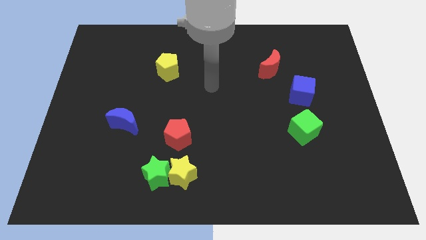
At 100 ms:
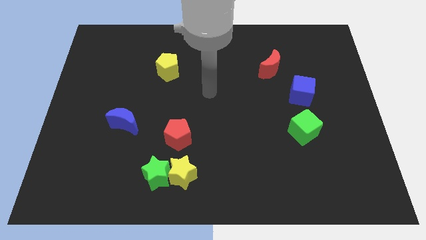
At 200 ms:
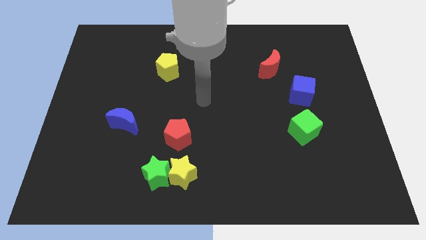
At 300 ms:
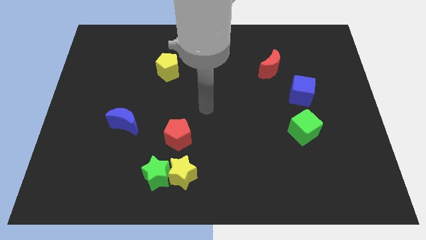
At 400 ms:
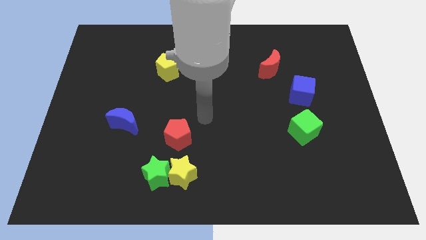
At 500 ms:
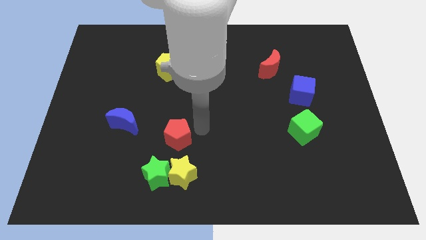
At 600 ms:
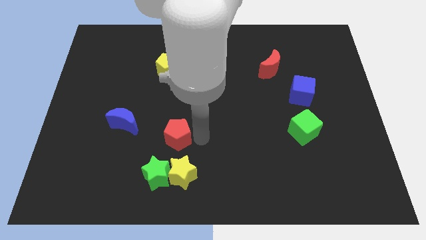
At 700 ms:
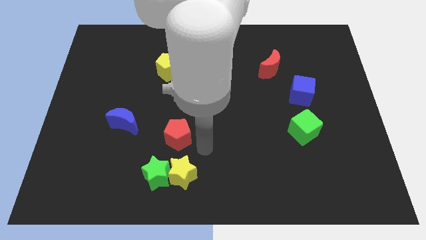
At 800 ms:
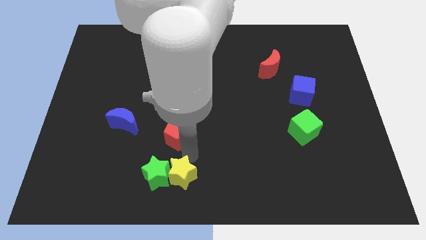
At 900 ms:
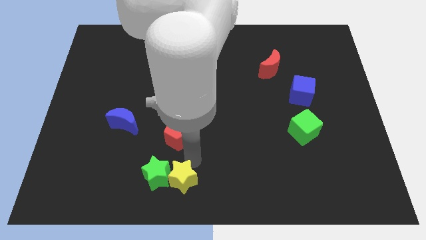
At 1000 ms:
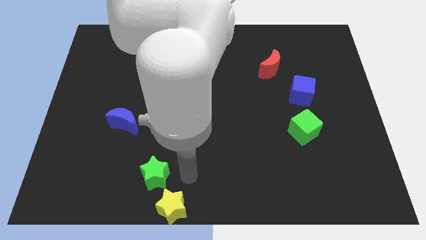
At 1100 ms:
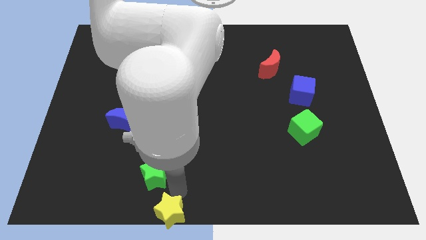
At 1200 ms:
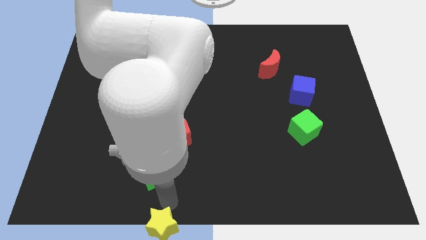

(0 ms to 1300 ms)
separate the green star from the yellow star

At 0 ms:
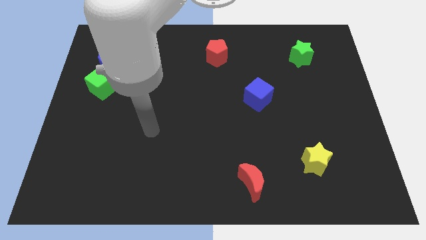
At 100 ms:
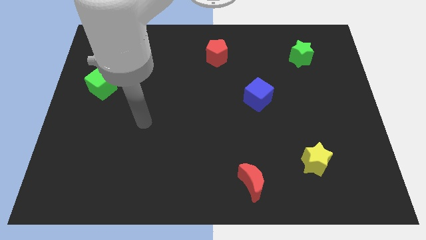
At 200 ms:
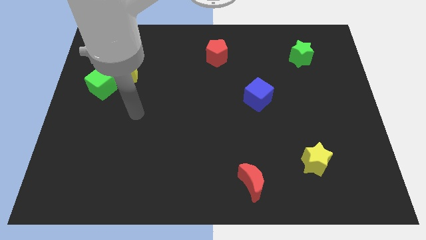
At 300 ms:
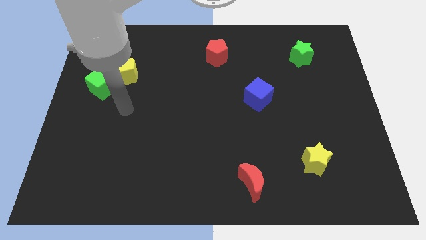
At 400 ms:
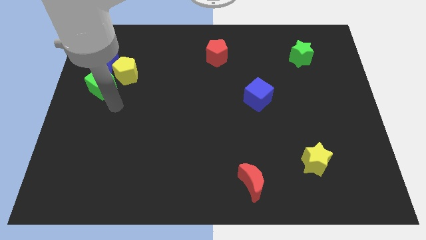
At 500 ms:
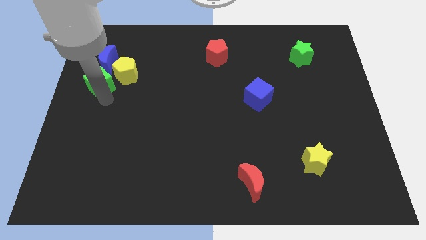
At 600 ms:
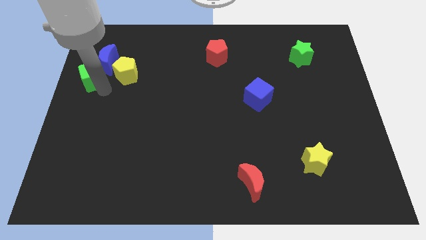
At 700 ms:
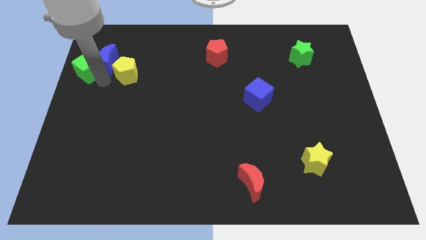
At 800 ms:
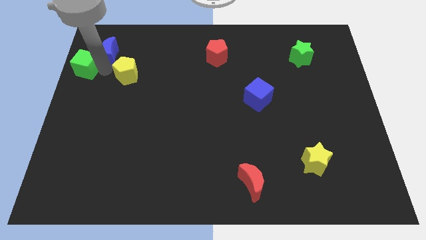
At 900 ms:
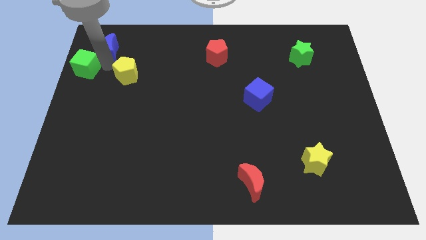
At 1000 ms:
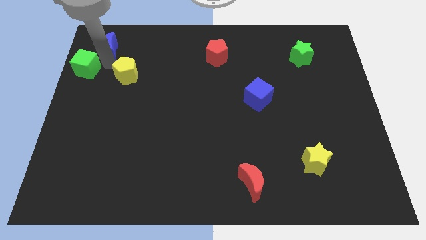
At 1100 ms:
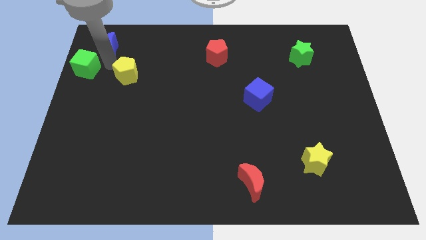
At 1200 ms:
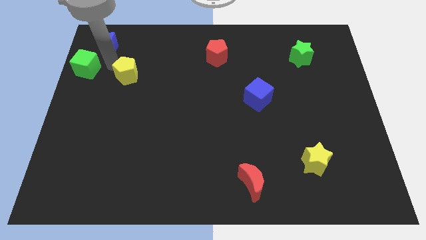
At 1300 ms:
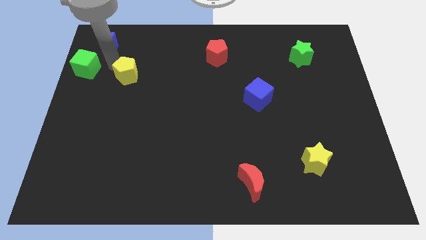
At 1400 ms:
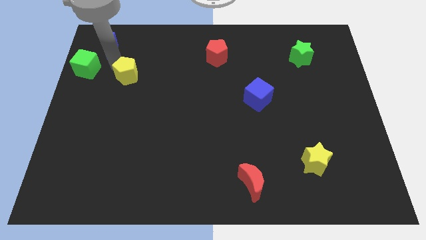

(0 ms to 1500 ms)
separate the yellow pentagon from the blue moon and green cube

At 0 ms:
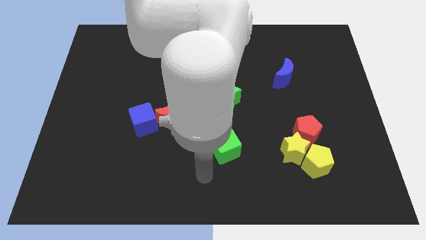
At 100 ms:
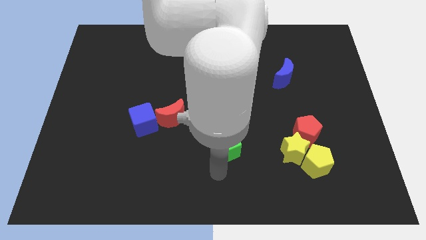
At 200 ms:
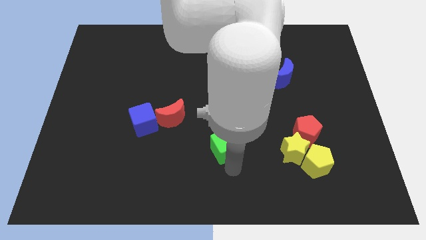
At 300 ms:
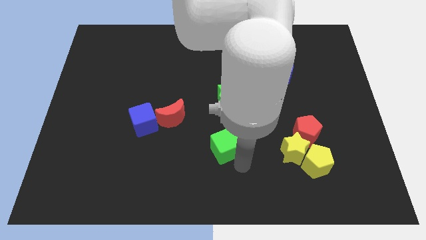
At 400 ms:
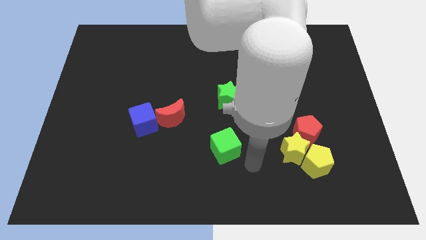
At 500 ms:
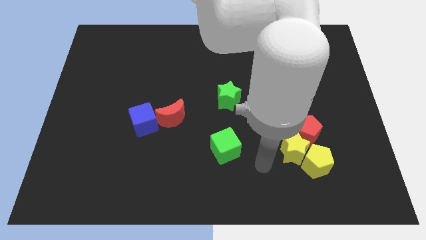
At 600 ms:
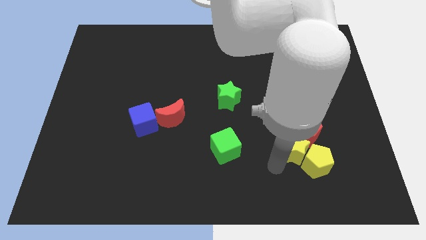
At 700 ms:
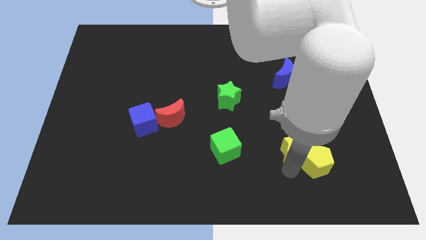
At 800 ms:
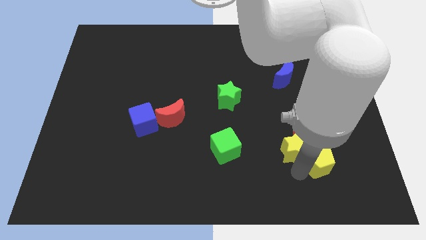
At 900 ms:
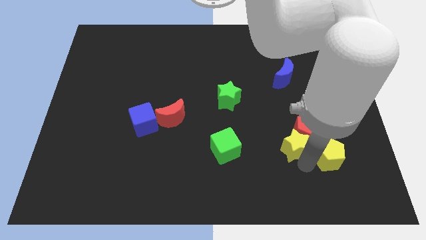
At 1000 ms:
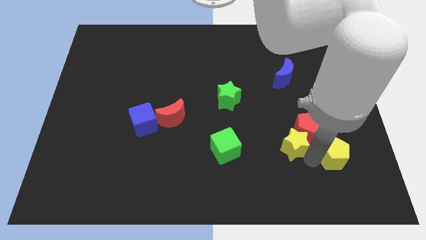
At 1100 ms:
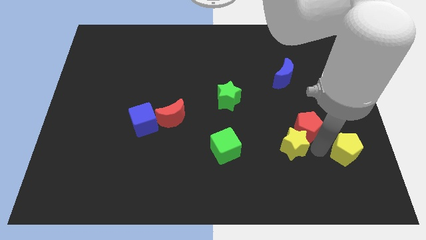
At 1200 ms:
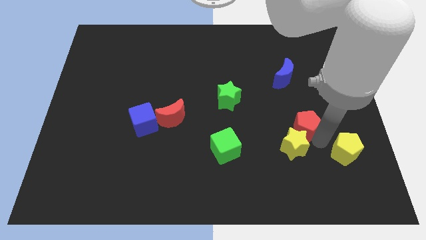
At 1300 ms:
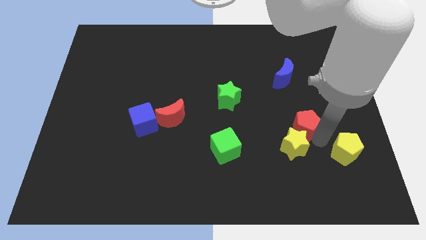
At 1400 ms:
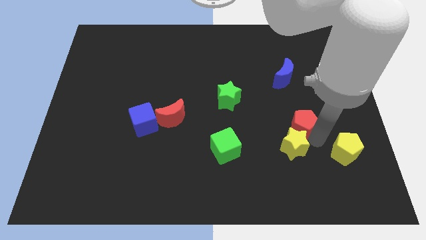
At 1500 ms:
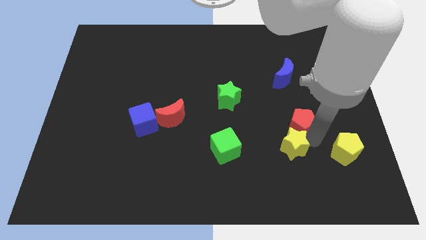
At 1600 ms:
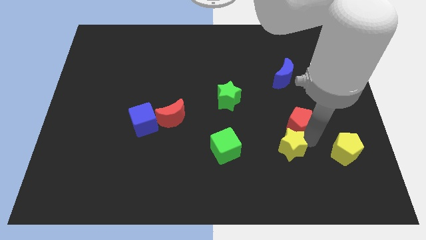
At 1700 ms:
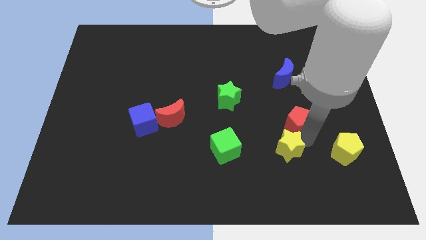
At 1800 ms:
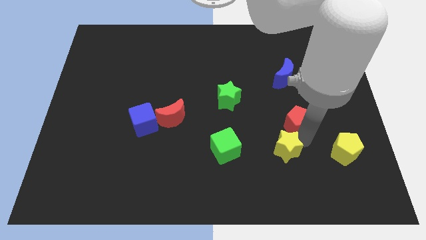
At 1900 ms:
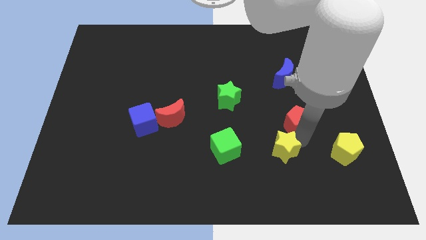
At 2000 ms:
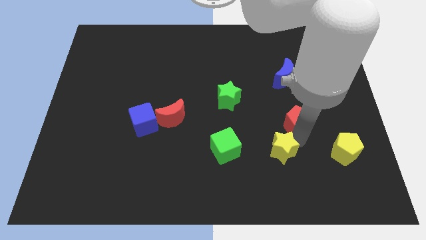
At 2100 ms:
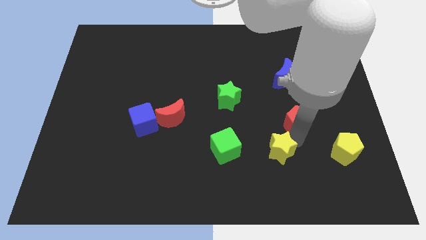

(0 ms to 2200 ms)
move the yellow star away from the yellow pentagon and red pentagon

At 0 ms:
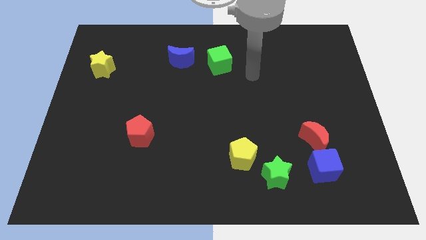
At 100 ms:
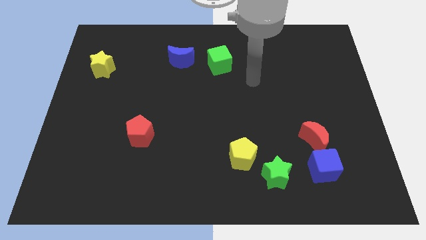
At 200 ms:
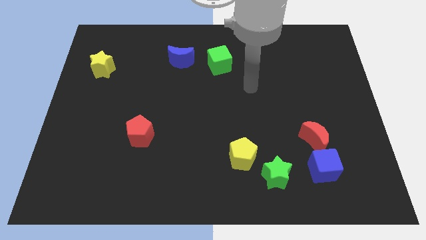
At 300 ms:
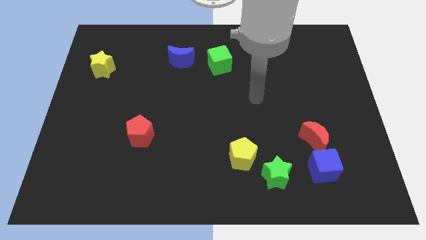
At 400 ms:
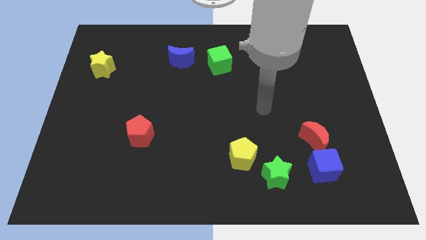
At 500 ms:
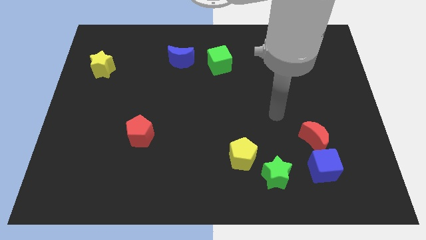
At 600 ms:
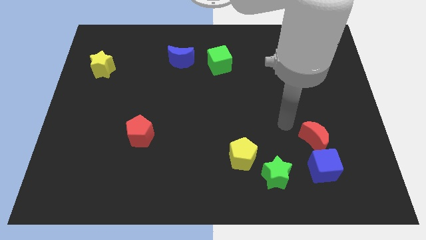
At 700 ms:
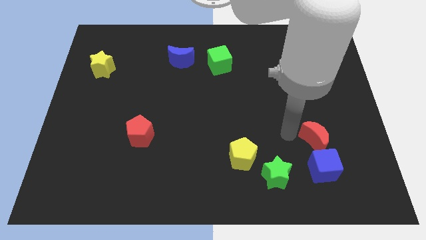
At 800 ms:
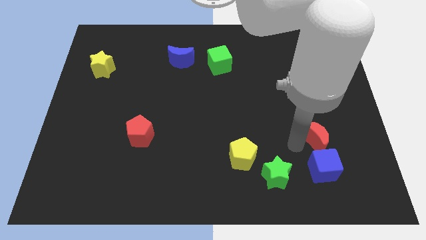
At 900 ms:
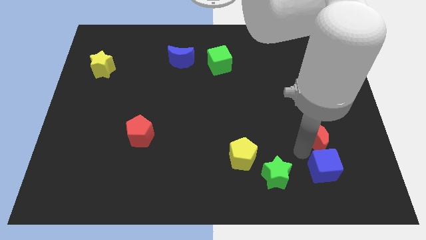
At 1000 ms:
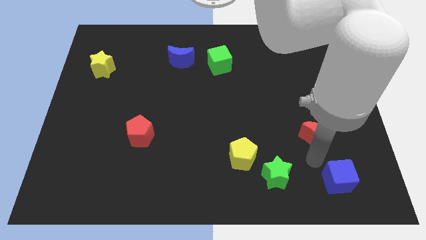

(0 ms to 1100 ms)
pull the red moon apart from the blue cube

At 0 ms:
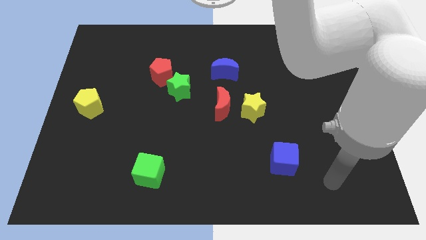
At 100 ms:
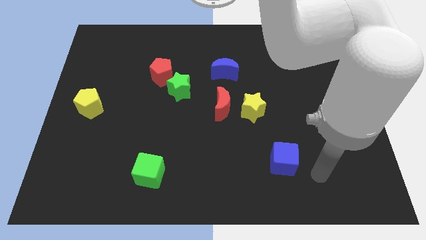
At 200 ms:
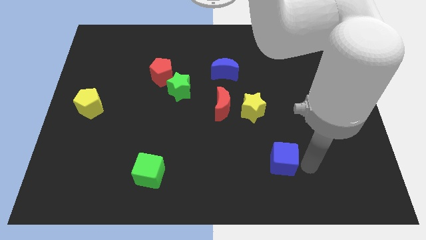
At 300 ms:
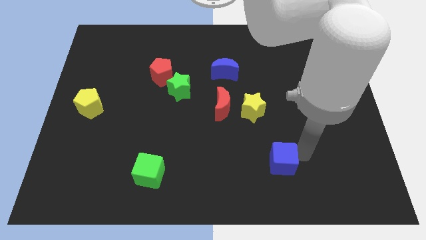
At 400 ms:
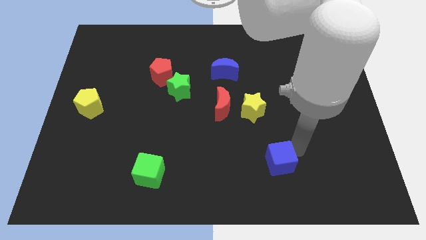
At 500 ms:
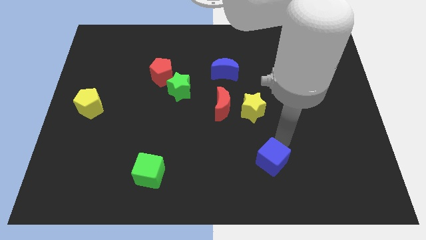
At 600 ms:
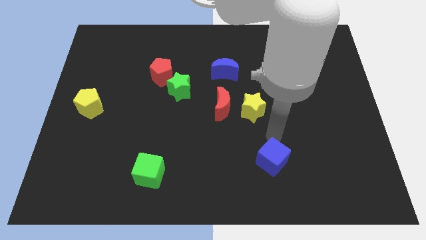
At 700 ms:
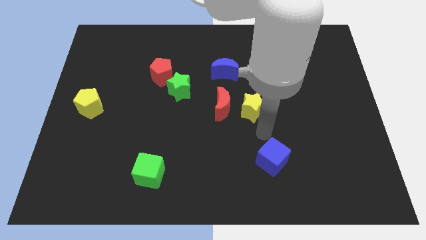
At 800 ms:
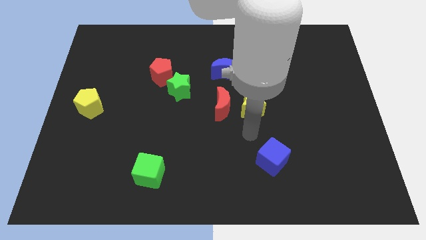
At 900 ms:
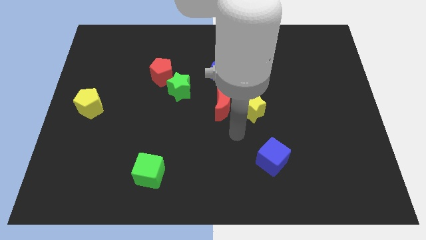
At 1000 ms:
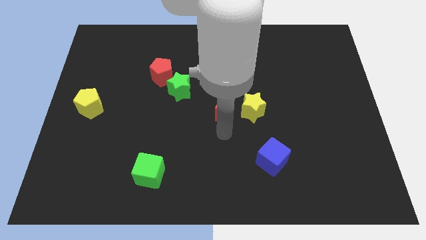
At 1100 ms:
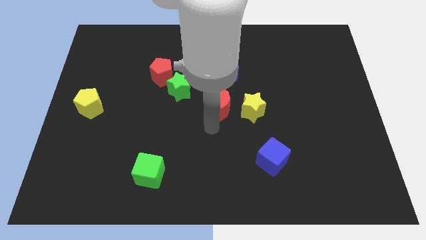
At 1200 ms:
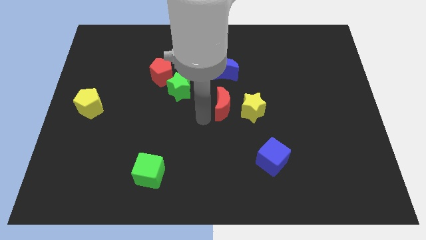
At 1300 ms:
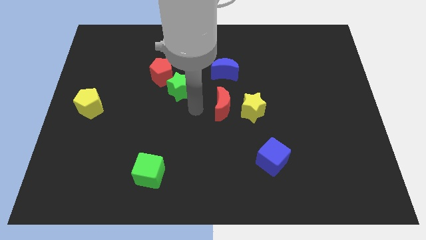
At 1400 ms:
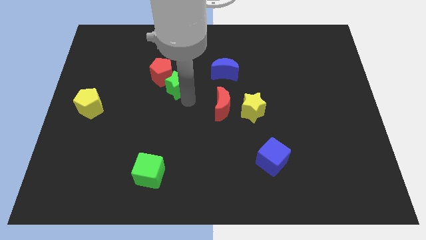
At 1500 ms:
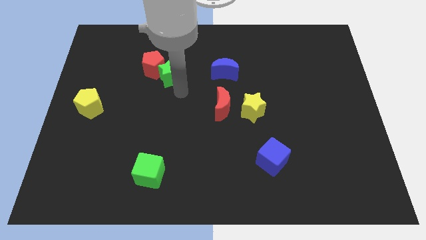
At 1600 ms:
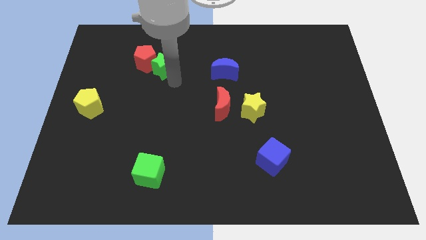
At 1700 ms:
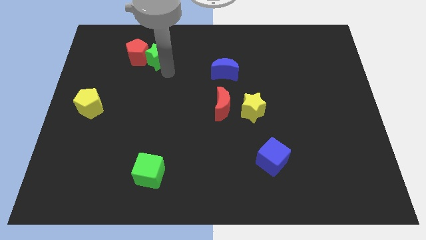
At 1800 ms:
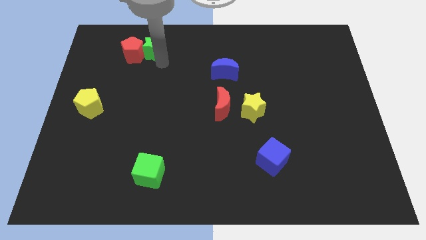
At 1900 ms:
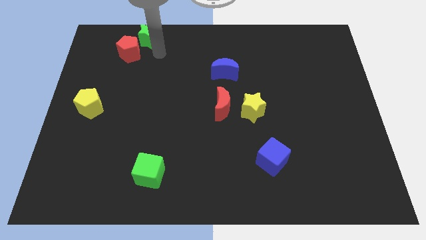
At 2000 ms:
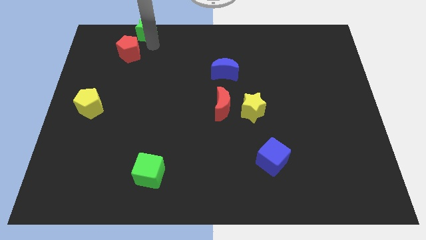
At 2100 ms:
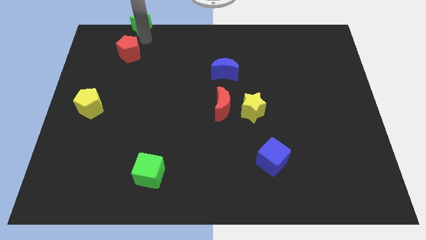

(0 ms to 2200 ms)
pull the red pentagon apart from the green star

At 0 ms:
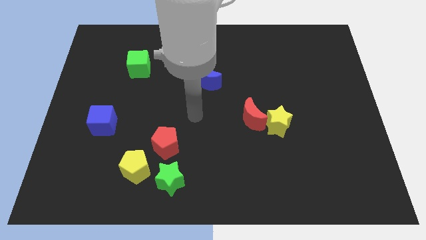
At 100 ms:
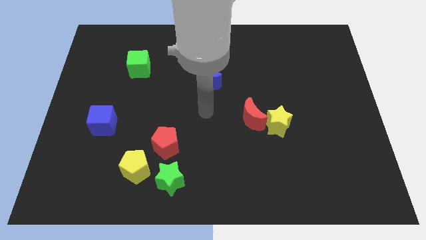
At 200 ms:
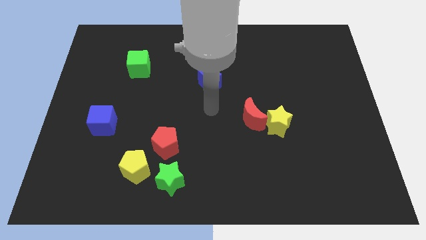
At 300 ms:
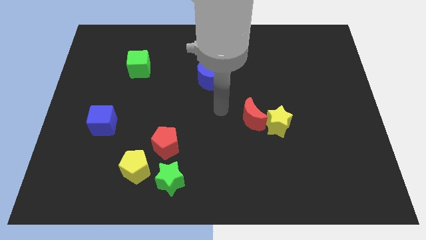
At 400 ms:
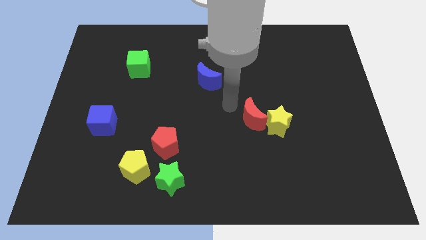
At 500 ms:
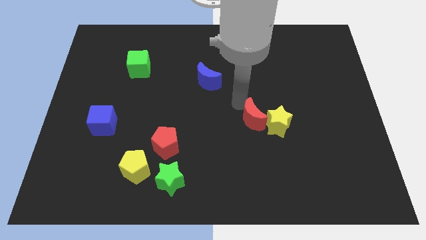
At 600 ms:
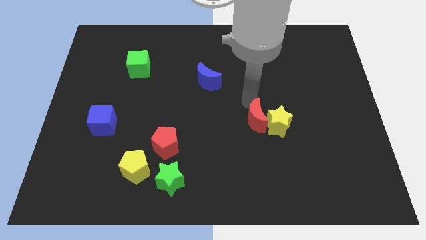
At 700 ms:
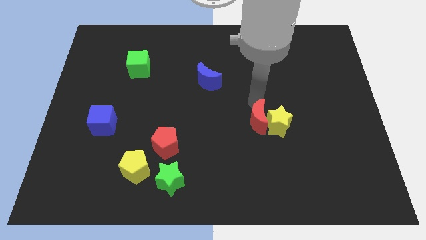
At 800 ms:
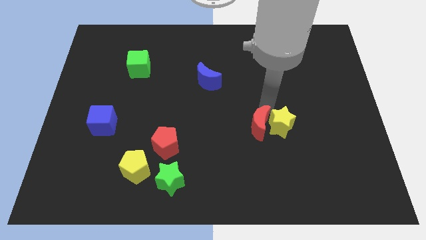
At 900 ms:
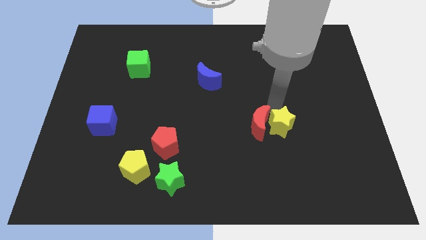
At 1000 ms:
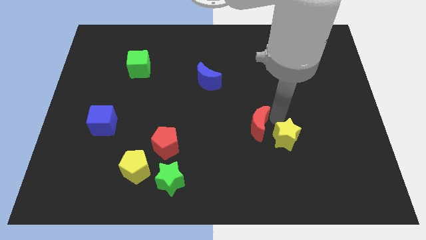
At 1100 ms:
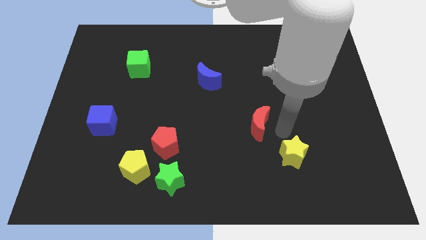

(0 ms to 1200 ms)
pull the red moon apart from the yellow star
